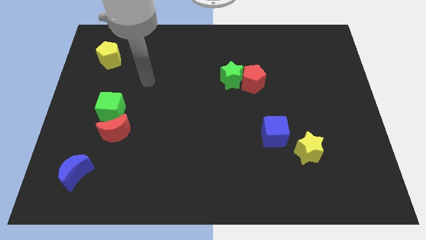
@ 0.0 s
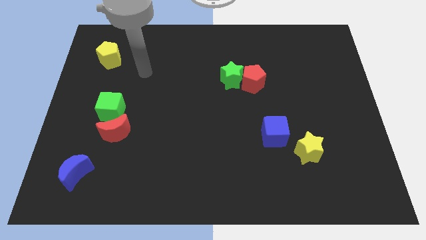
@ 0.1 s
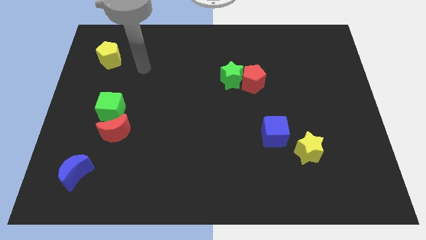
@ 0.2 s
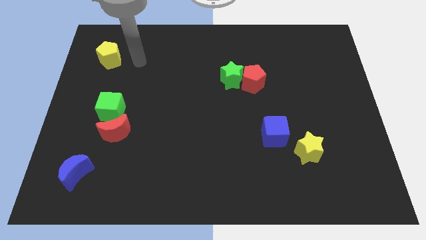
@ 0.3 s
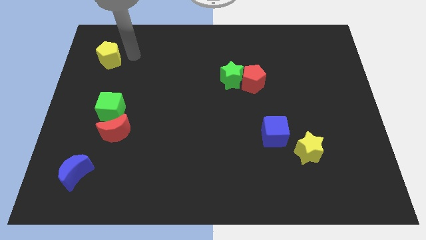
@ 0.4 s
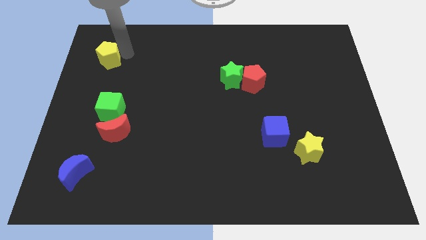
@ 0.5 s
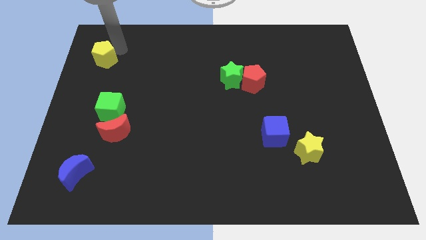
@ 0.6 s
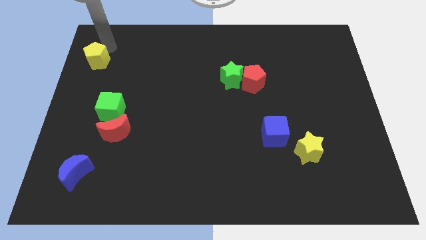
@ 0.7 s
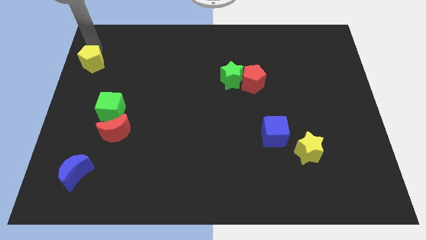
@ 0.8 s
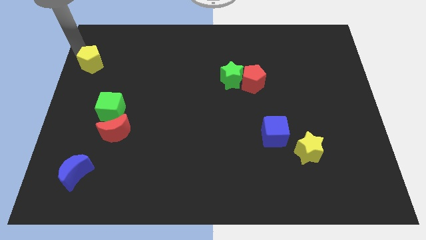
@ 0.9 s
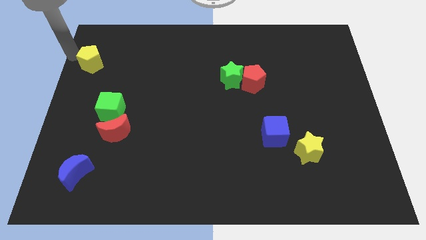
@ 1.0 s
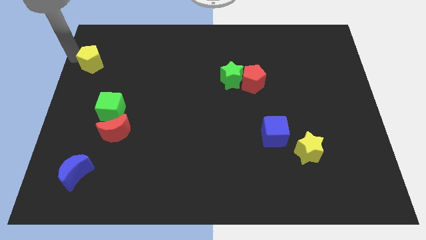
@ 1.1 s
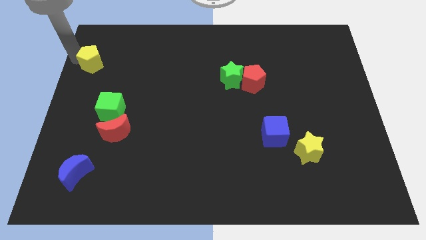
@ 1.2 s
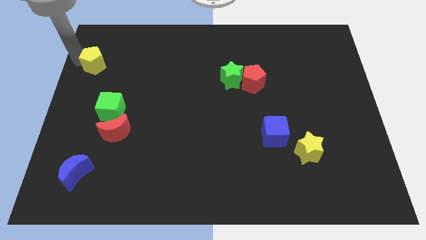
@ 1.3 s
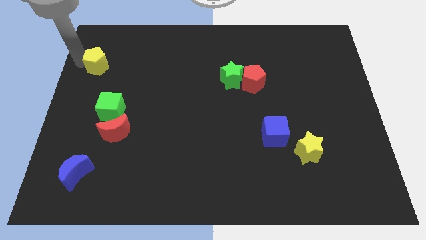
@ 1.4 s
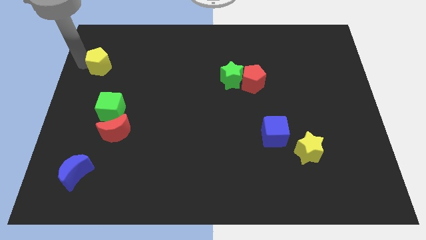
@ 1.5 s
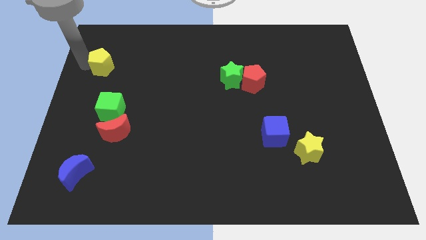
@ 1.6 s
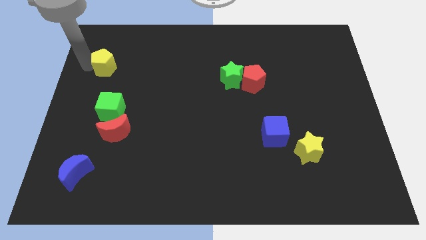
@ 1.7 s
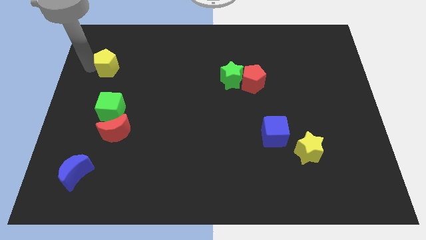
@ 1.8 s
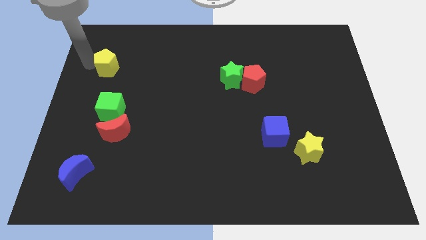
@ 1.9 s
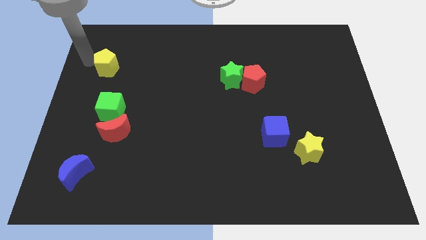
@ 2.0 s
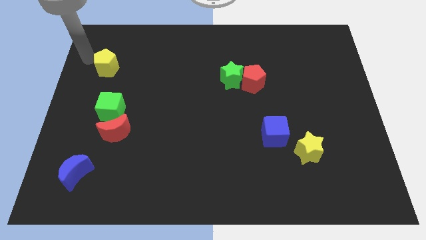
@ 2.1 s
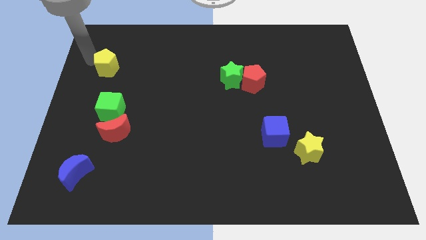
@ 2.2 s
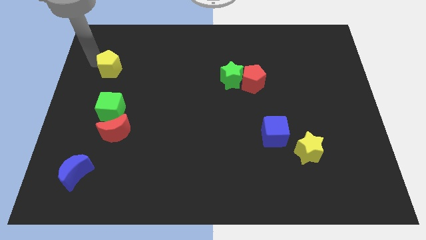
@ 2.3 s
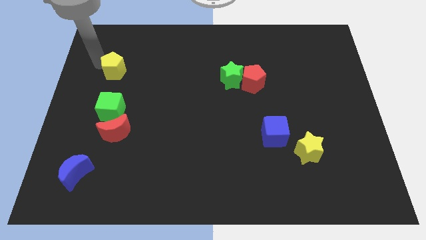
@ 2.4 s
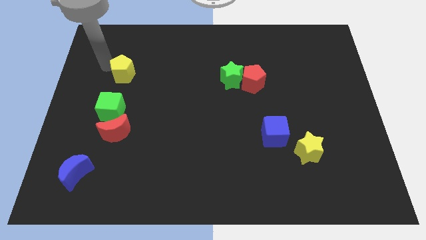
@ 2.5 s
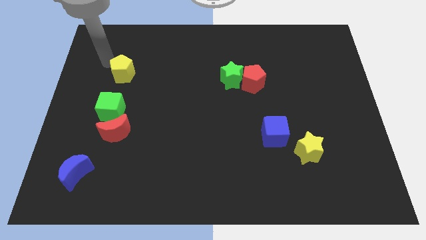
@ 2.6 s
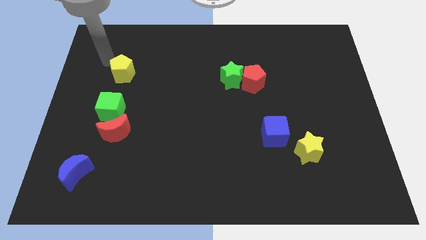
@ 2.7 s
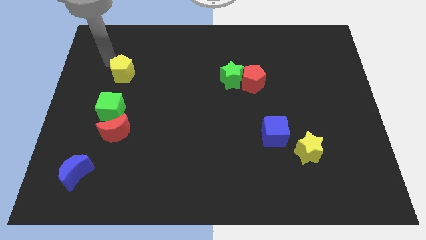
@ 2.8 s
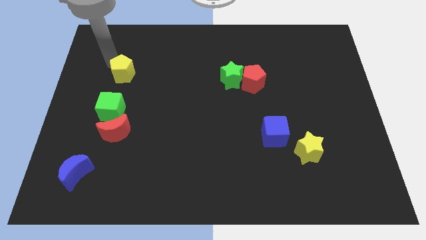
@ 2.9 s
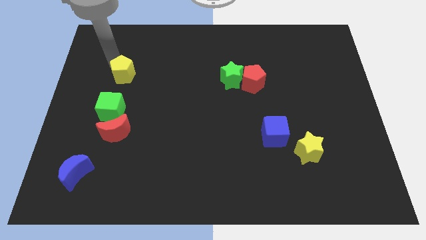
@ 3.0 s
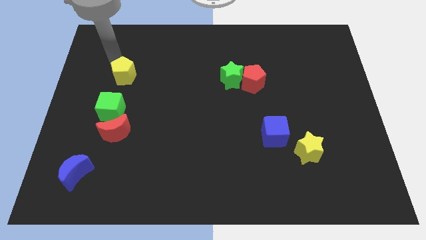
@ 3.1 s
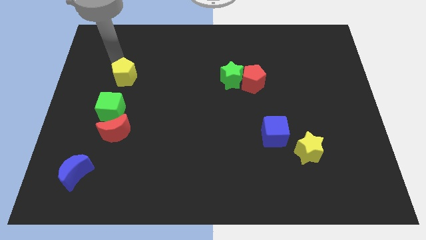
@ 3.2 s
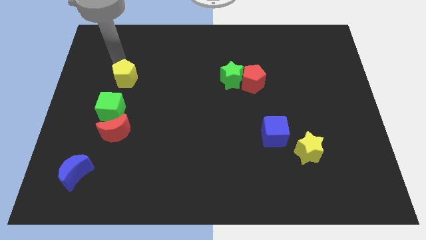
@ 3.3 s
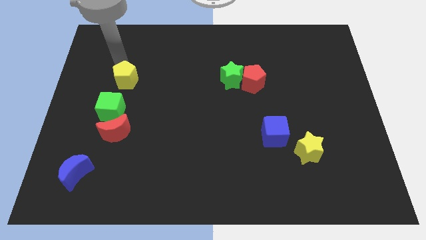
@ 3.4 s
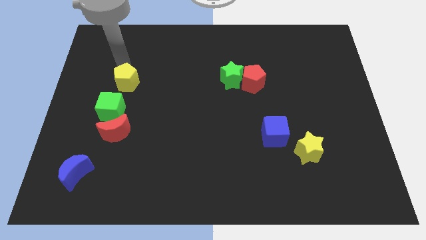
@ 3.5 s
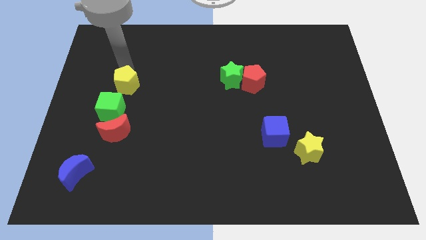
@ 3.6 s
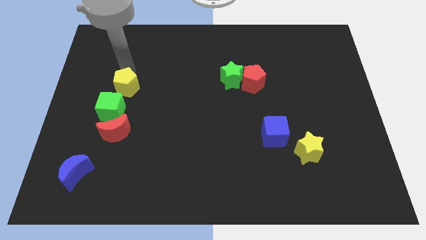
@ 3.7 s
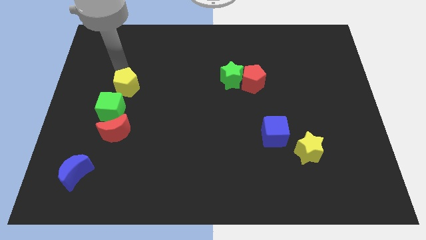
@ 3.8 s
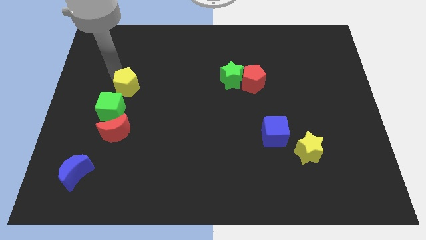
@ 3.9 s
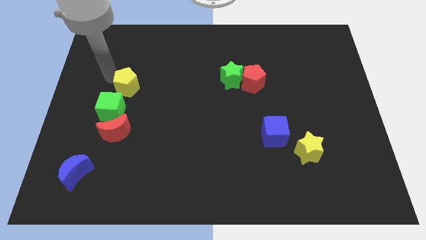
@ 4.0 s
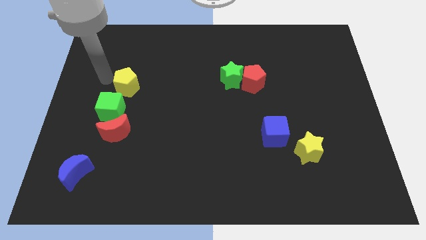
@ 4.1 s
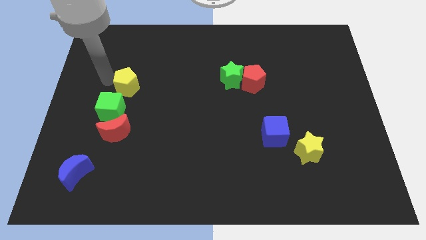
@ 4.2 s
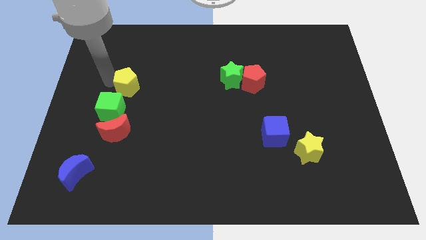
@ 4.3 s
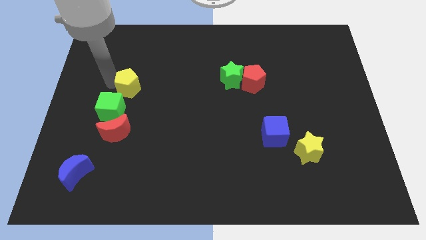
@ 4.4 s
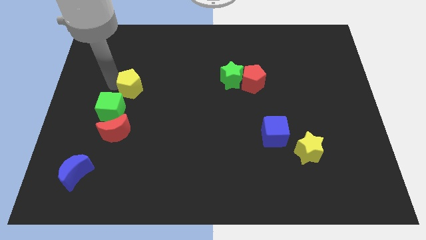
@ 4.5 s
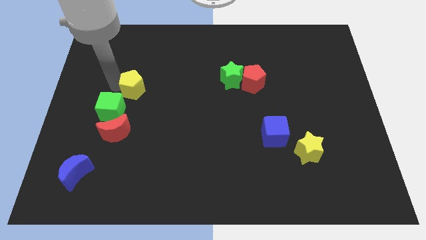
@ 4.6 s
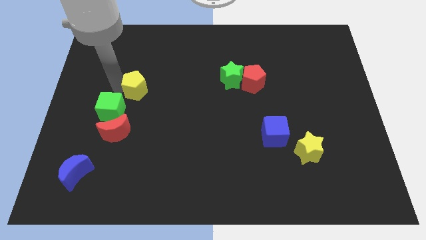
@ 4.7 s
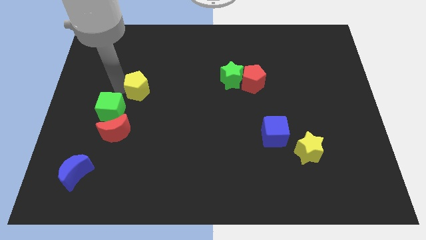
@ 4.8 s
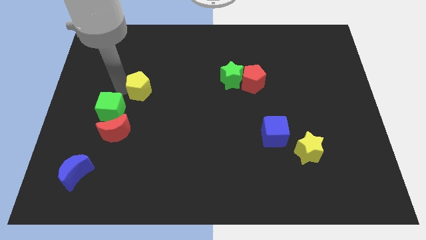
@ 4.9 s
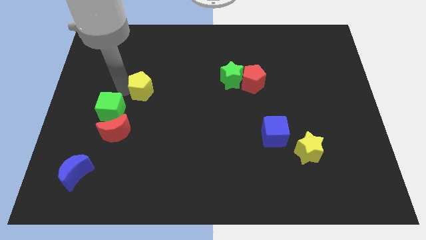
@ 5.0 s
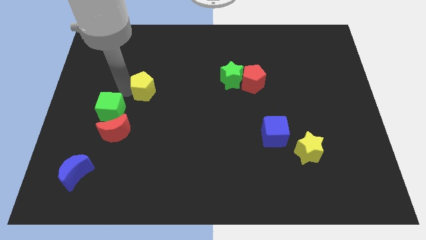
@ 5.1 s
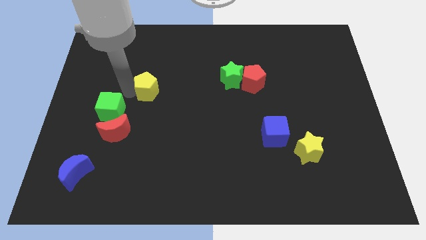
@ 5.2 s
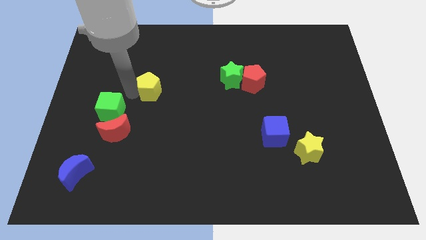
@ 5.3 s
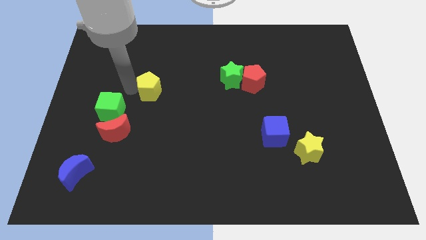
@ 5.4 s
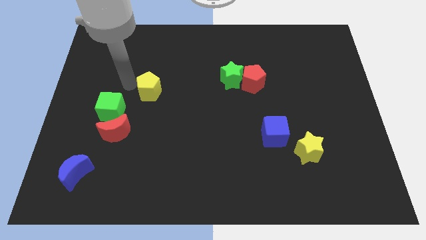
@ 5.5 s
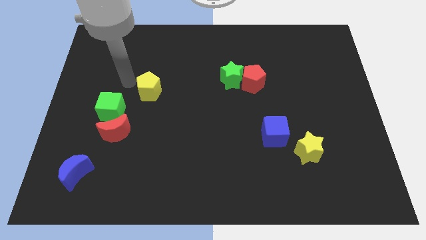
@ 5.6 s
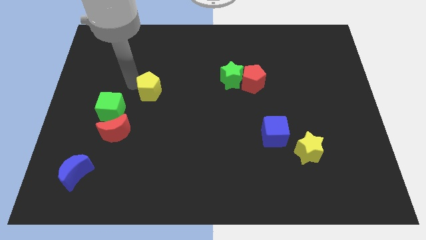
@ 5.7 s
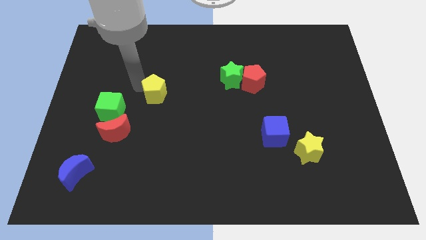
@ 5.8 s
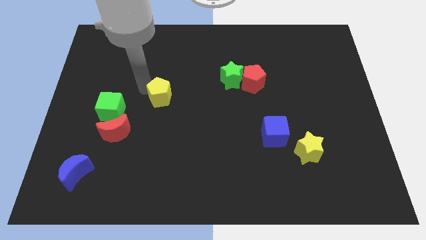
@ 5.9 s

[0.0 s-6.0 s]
slide the yellow pentagon to the center
